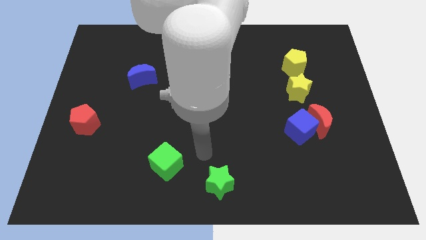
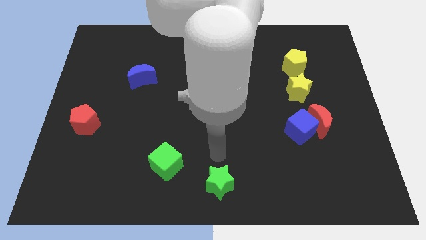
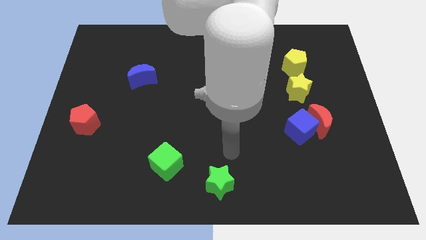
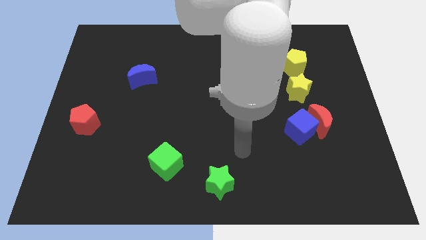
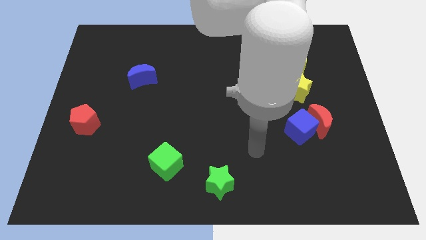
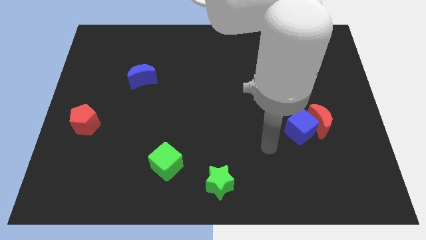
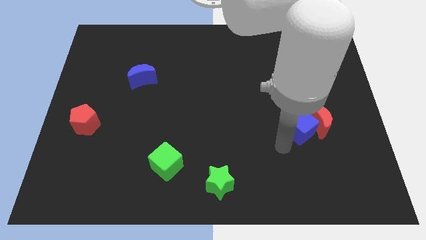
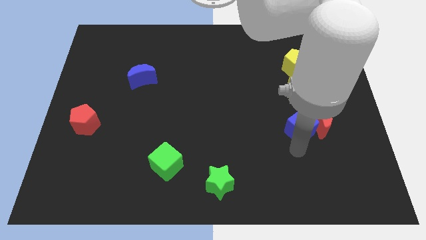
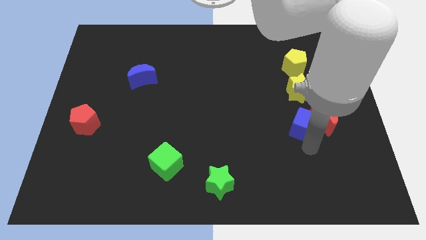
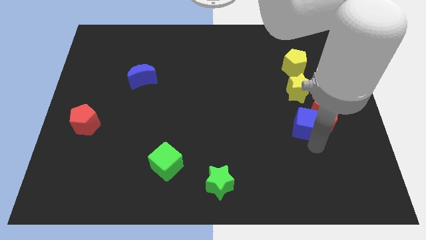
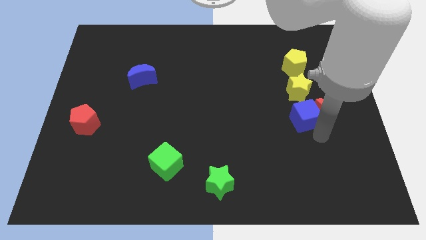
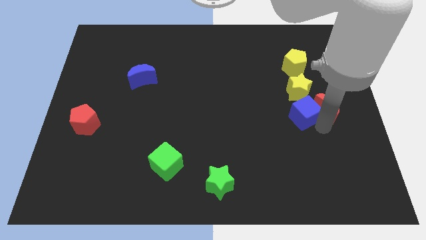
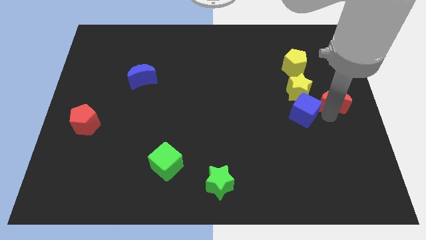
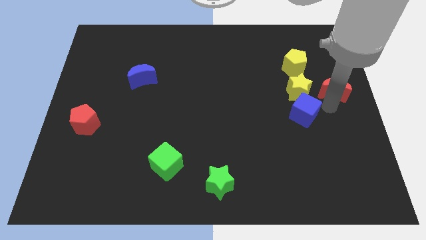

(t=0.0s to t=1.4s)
separate the blue cube from the red moon

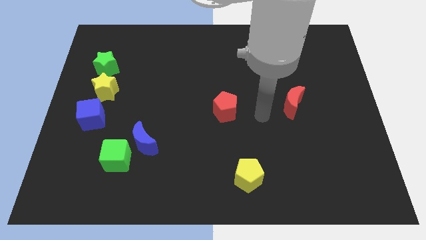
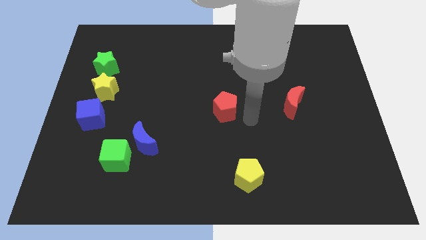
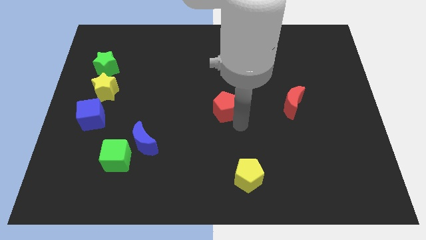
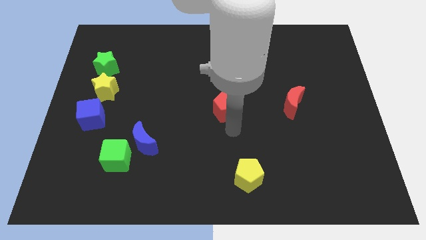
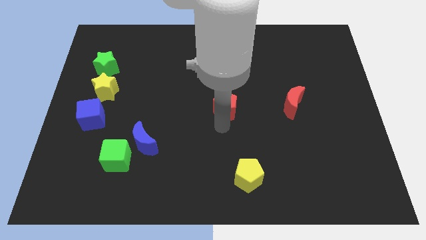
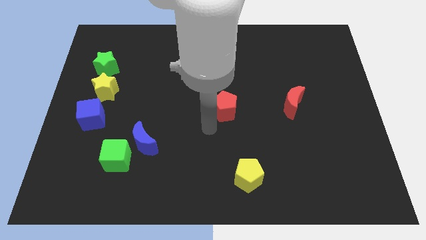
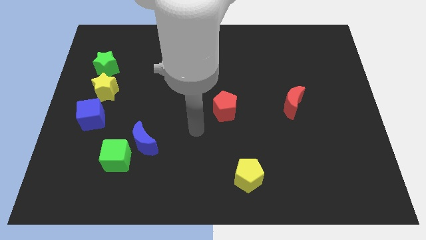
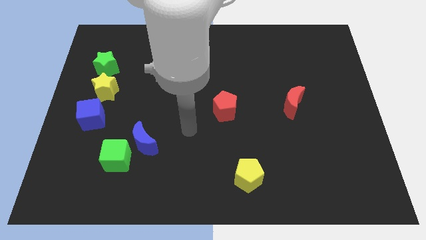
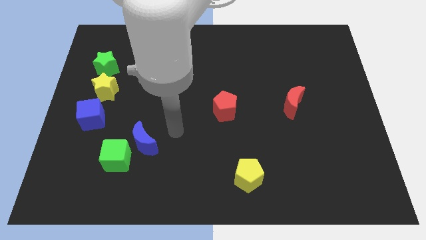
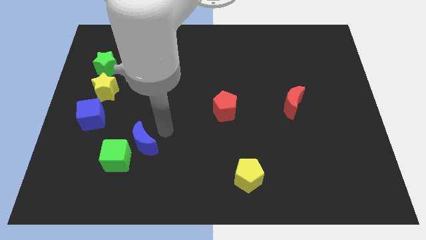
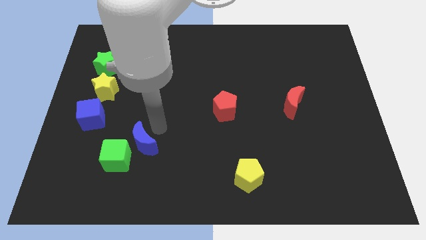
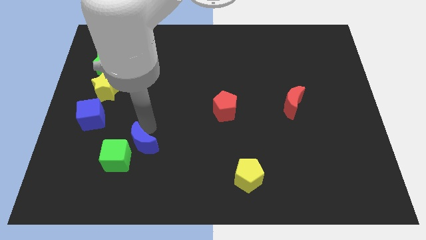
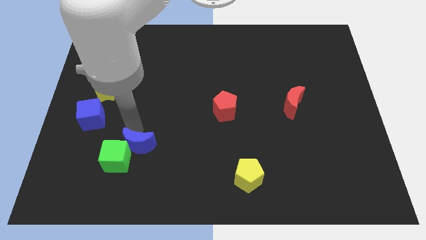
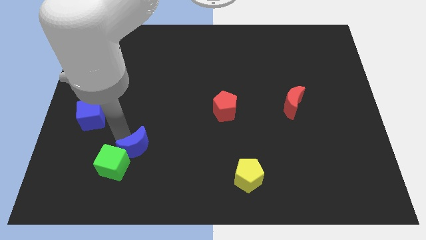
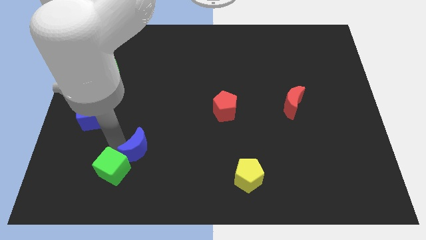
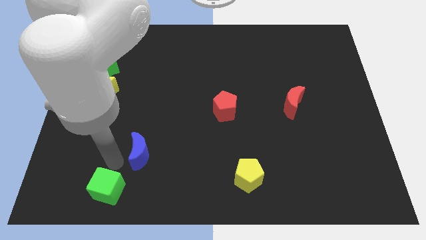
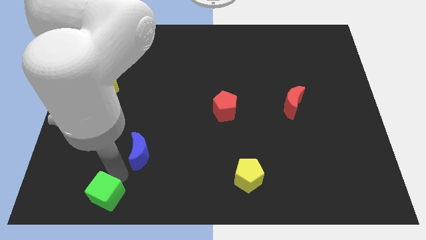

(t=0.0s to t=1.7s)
move the blue moon away from the green cube

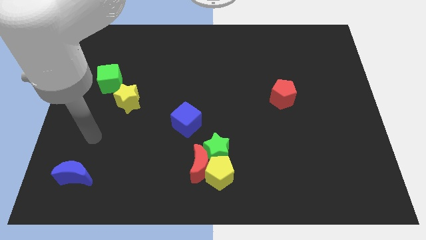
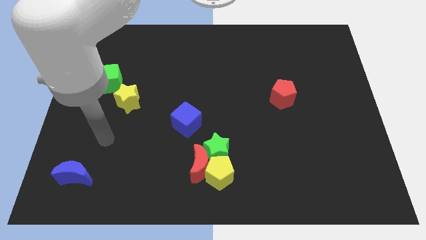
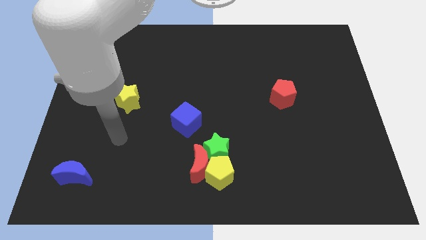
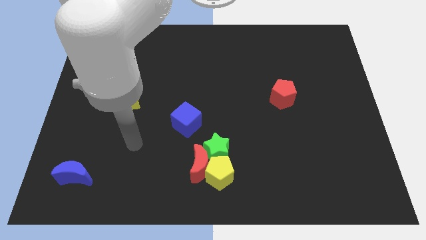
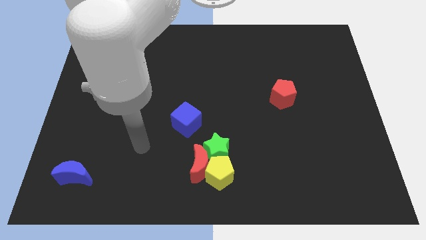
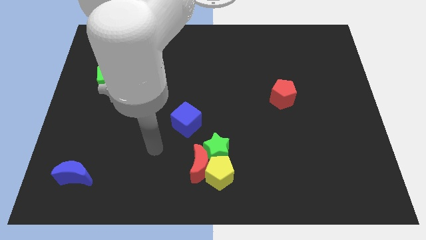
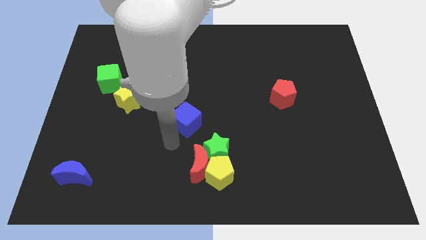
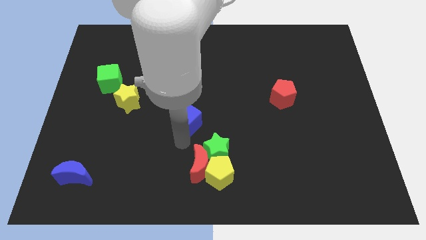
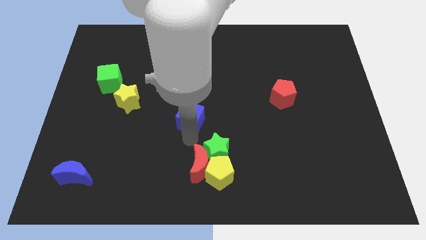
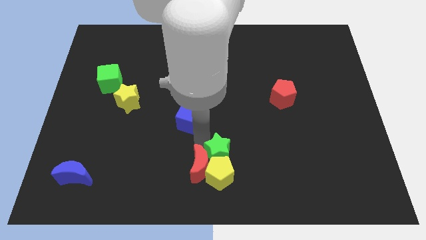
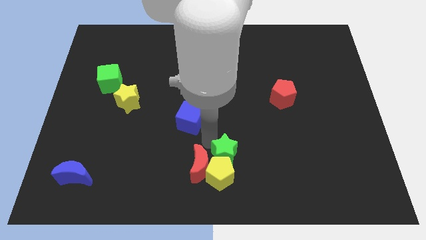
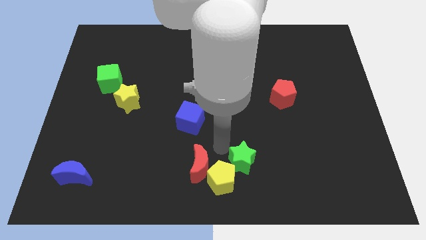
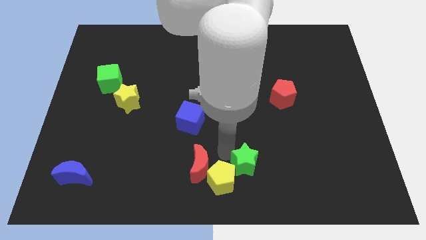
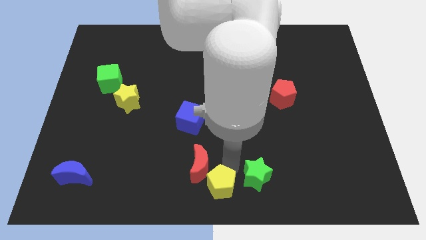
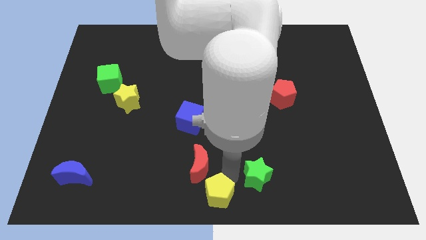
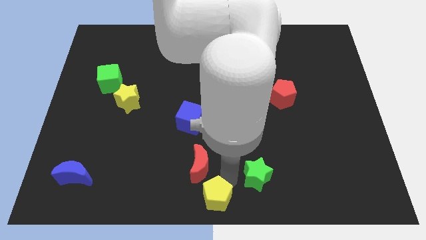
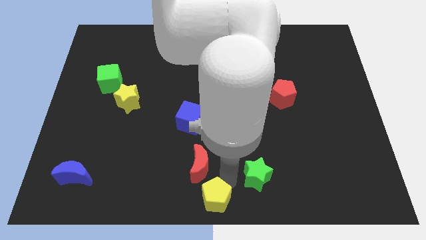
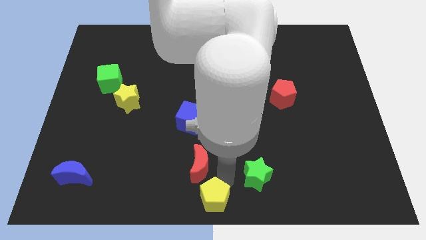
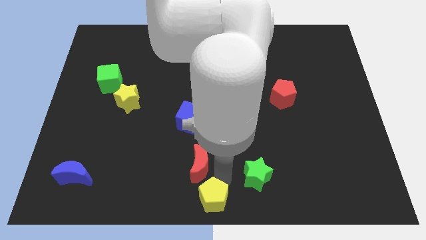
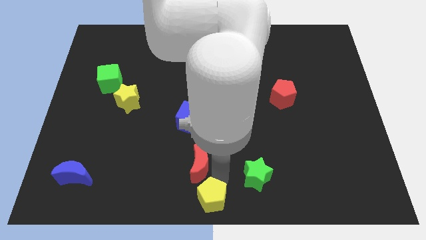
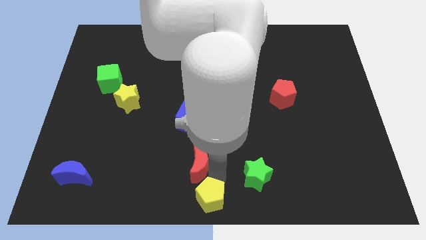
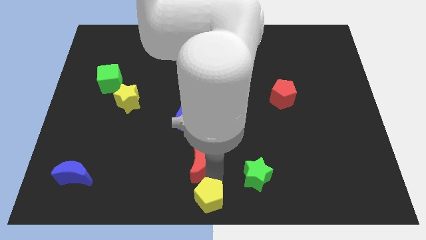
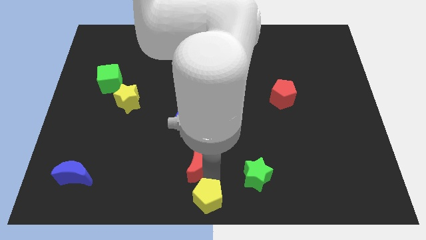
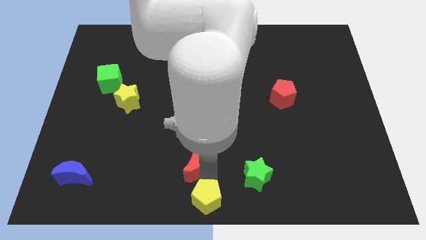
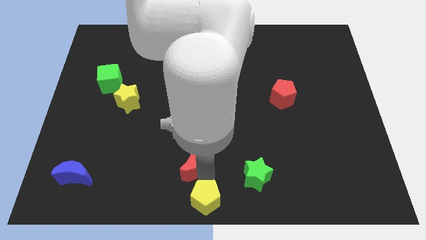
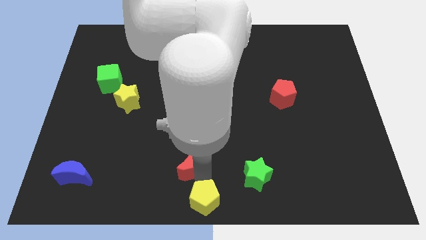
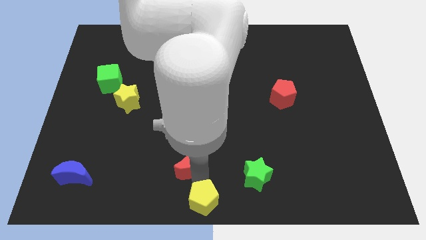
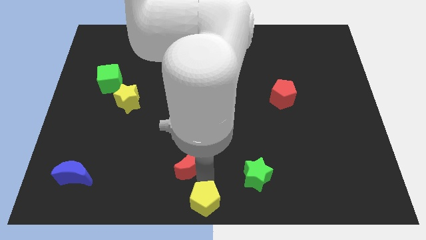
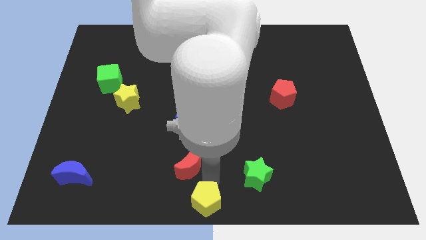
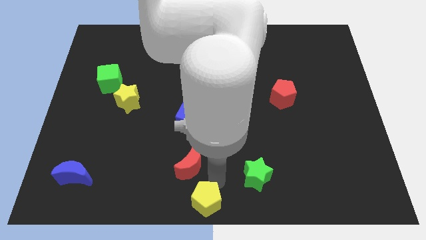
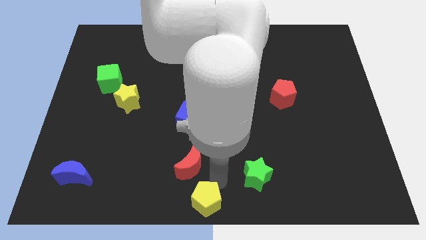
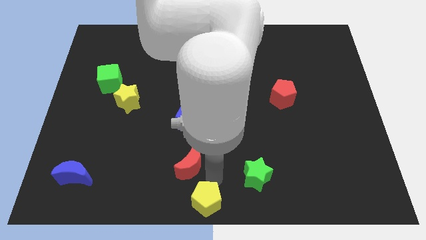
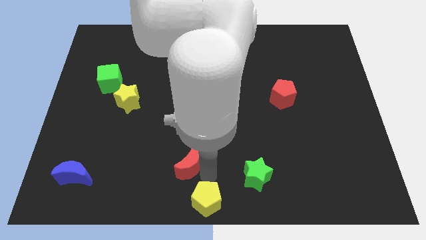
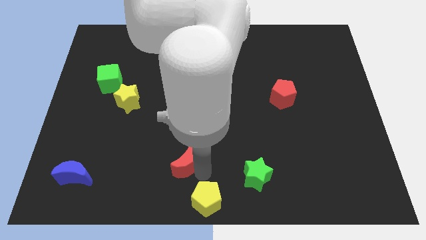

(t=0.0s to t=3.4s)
move the red moon away from the yellow pentagon and green star

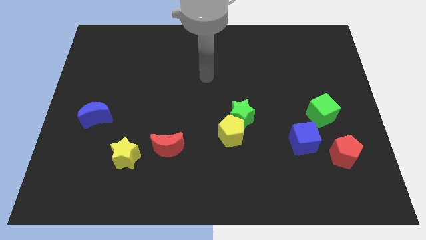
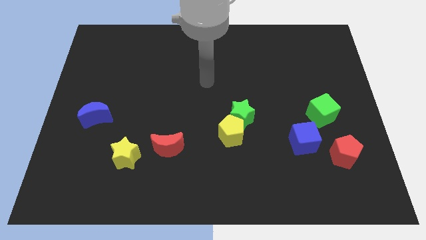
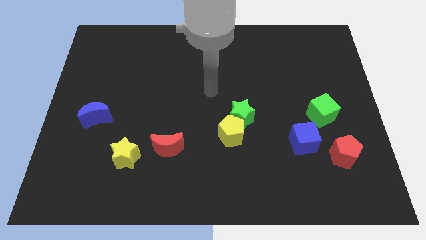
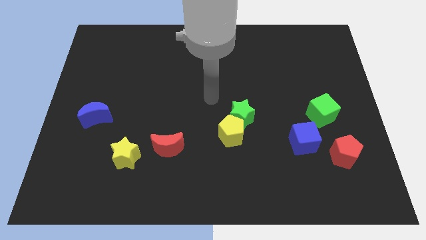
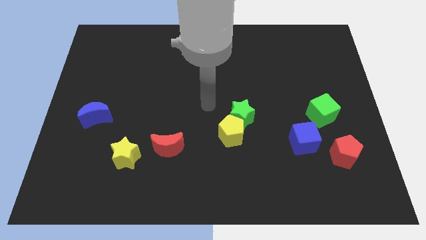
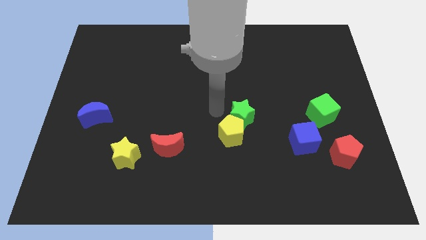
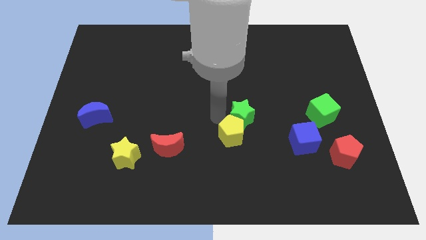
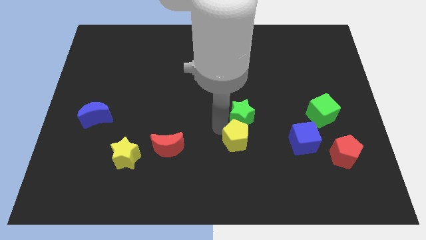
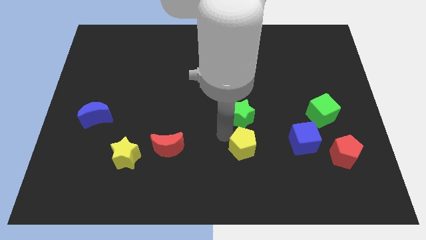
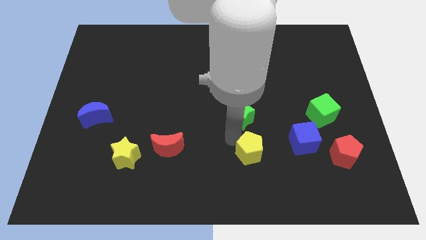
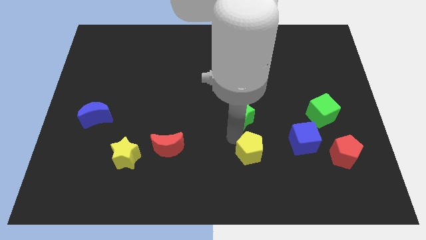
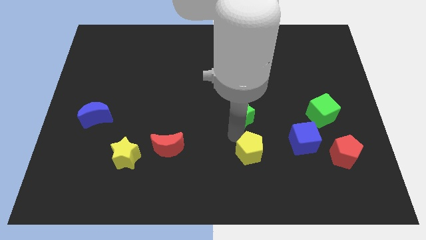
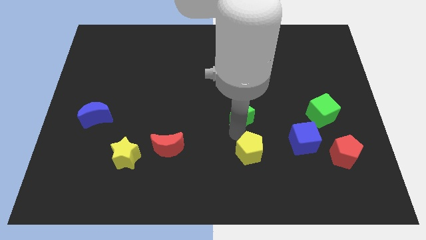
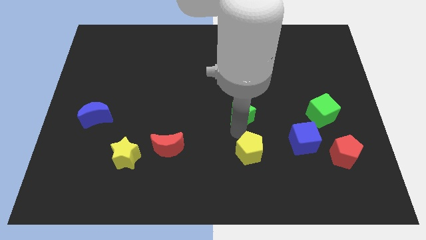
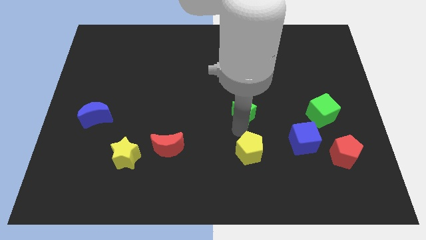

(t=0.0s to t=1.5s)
move the green star away from the yellow pentagon

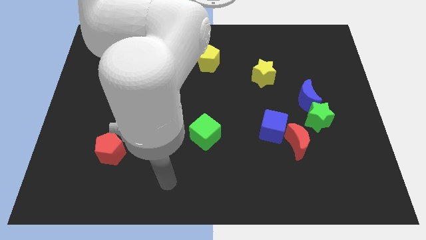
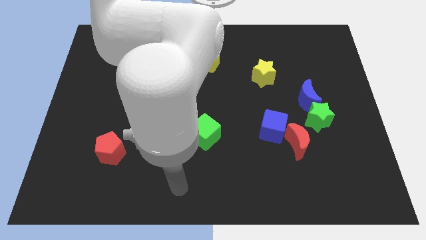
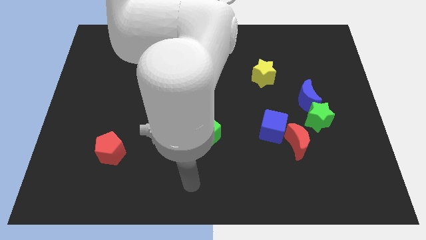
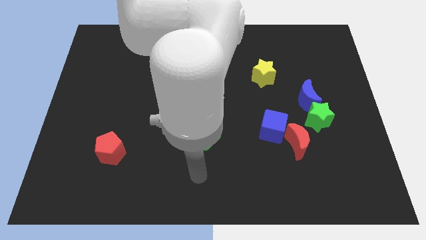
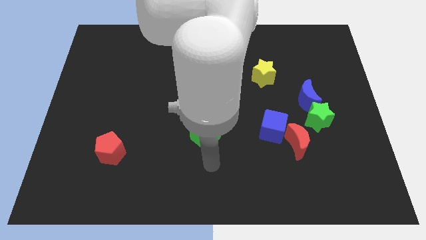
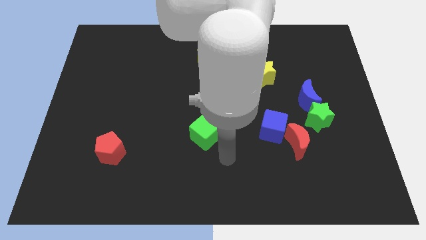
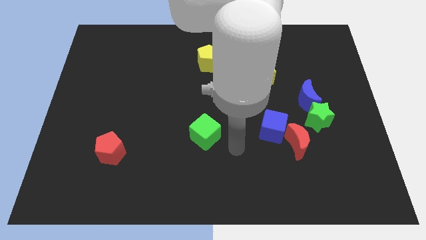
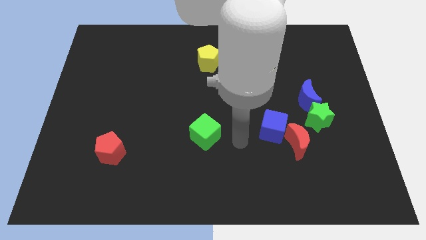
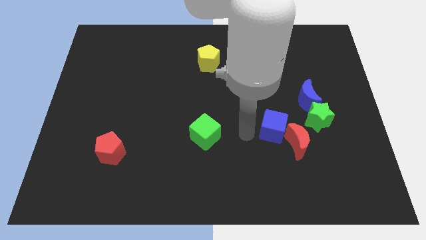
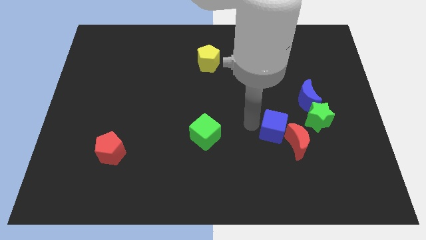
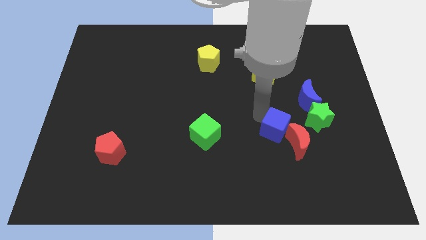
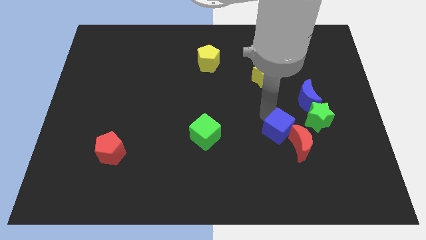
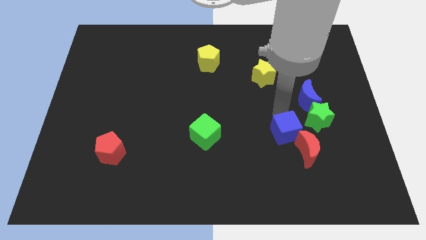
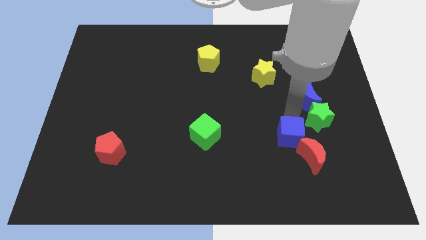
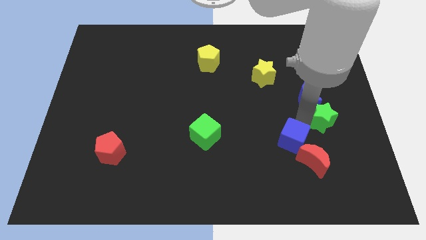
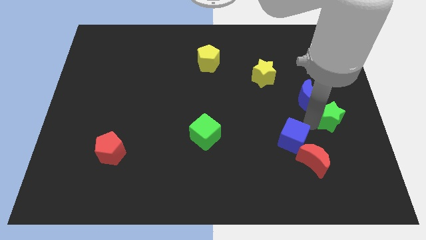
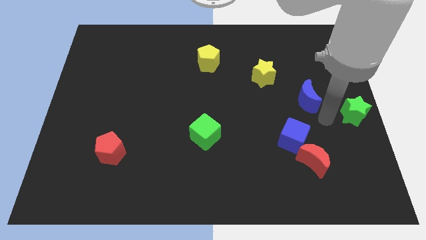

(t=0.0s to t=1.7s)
move the blue moon away from the green star
